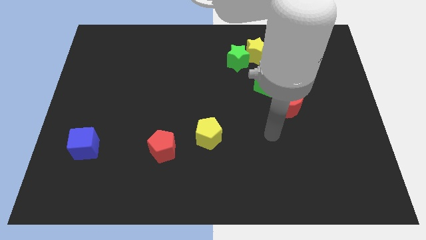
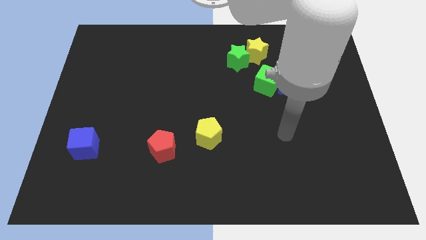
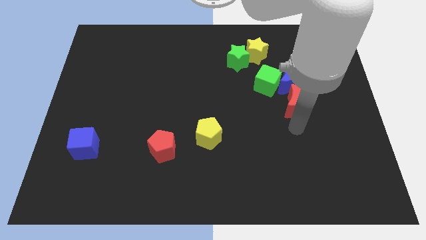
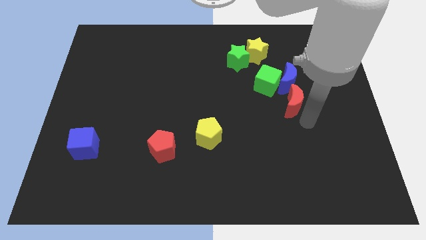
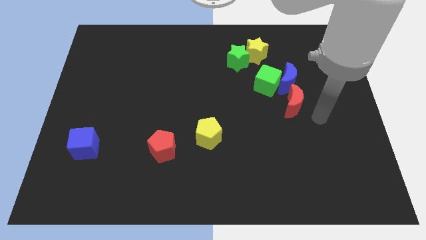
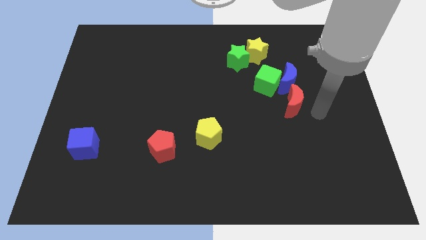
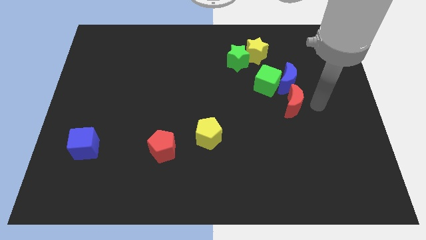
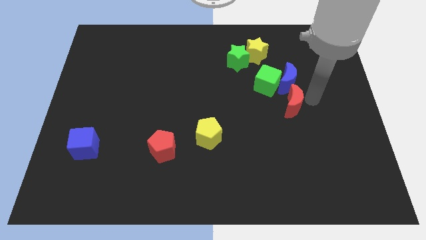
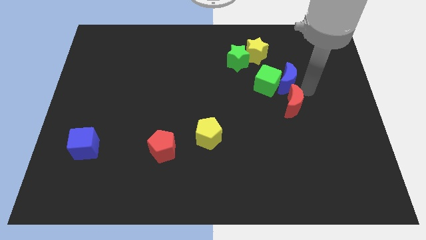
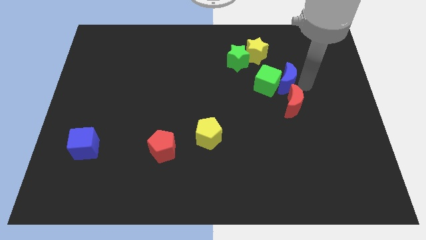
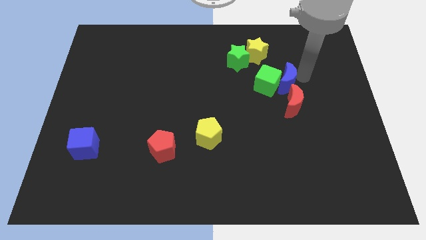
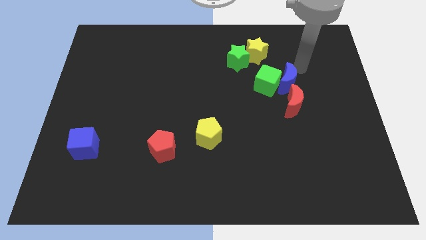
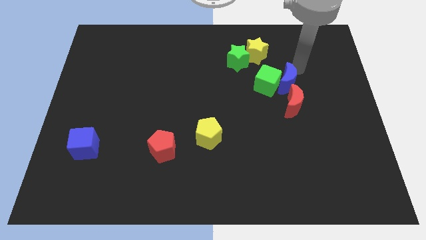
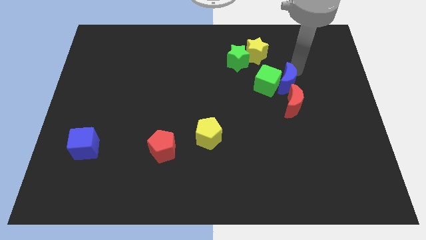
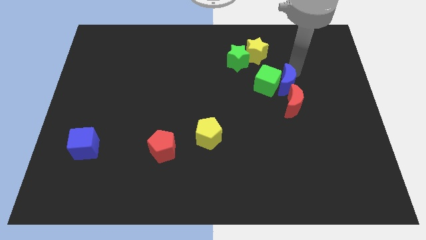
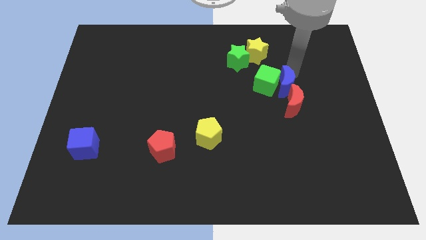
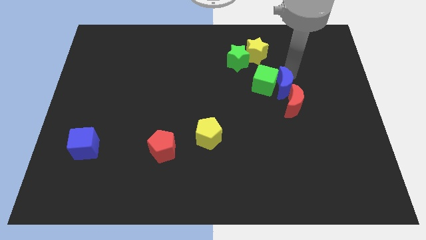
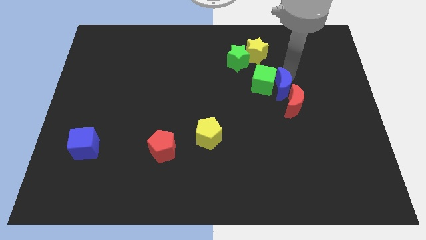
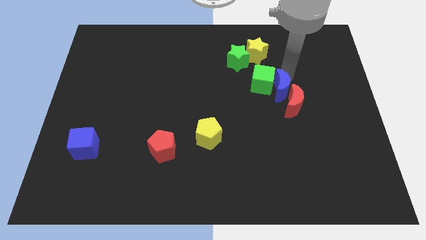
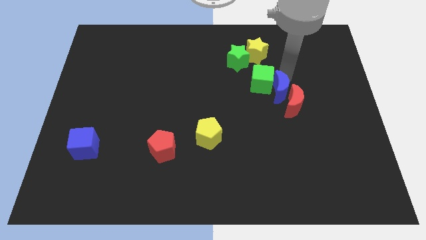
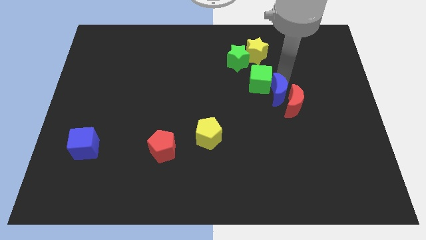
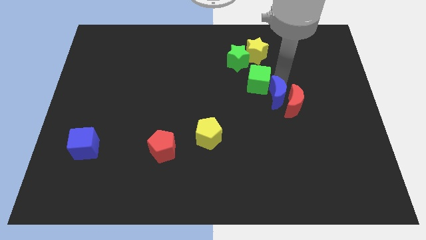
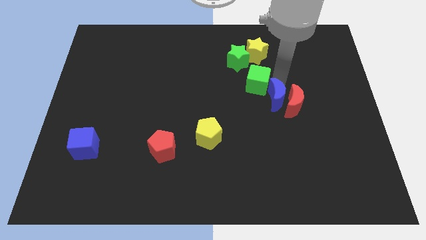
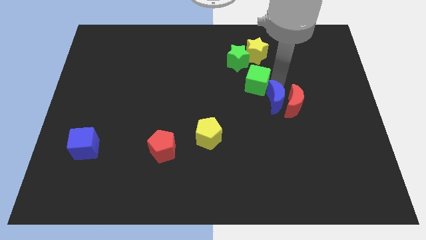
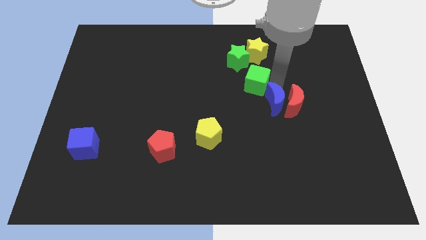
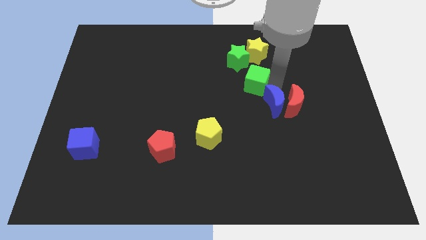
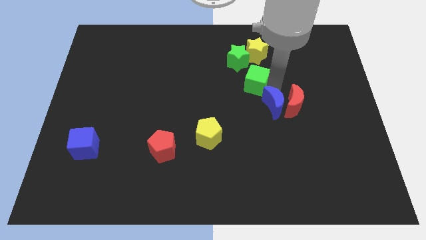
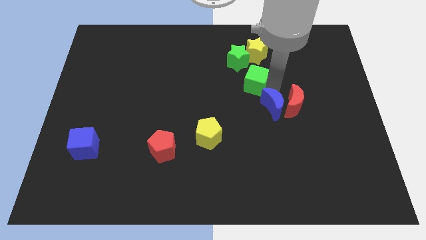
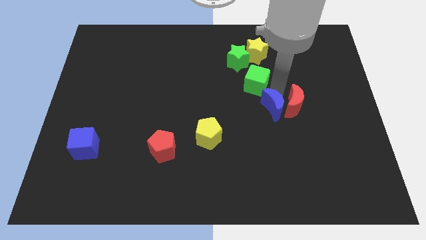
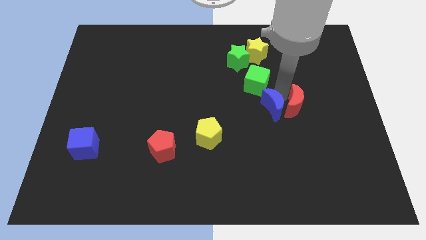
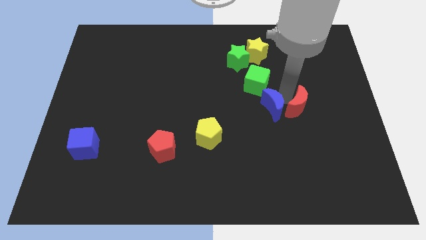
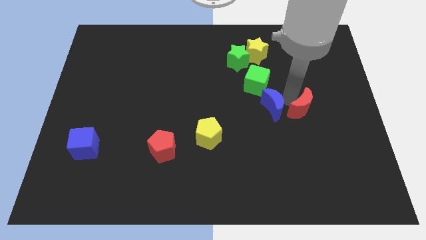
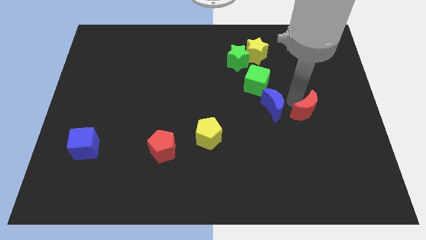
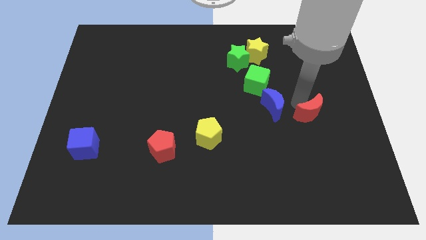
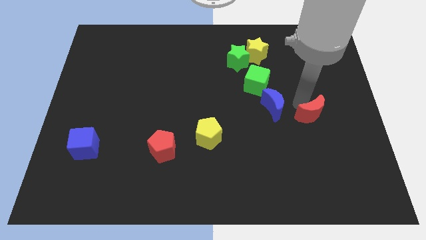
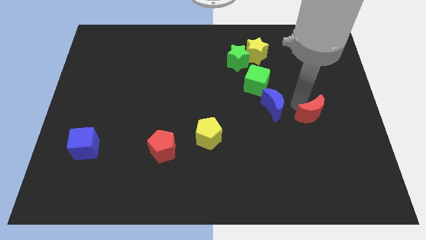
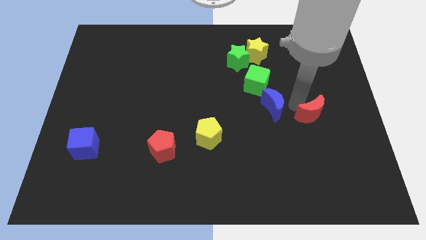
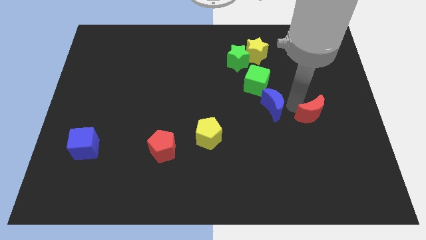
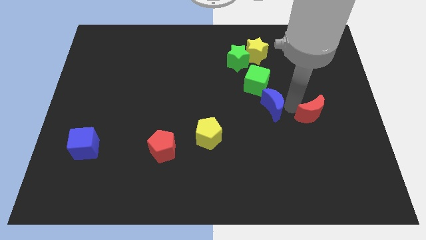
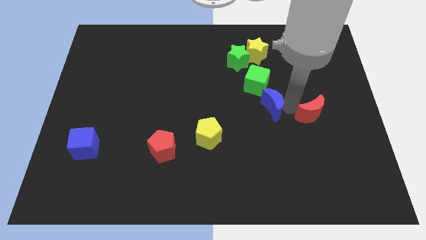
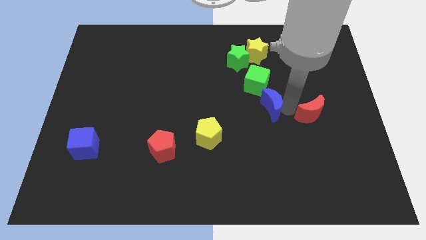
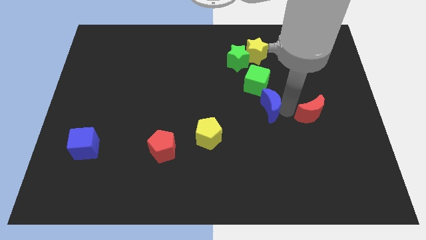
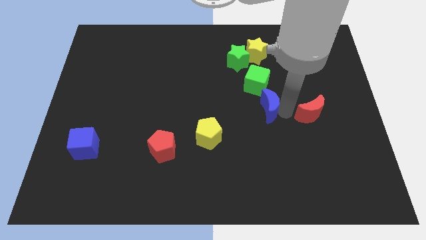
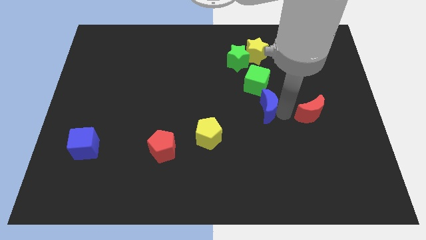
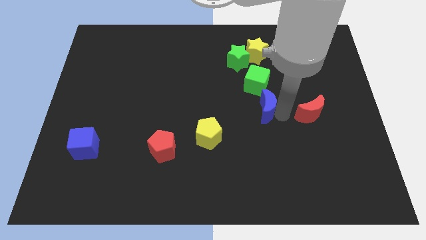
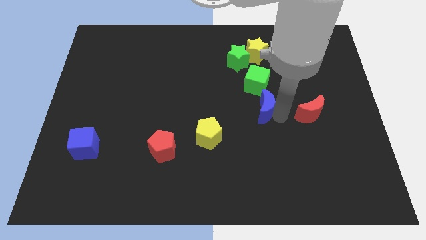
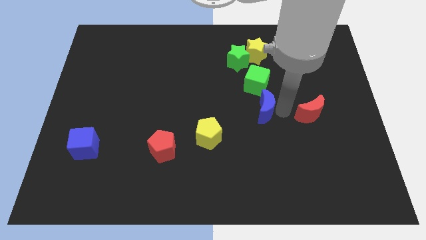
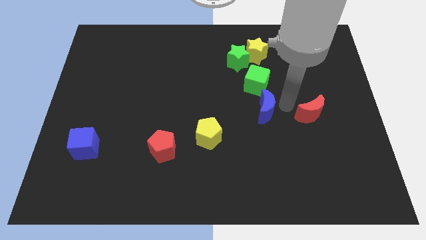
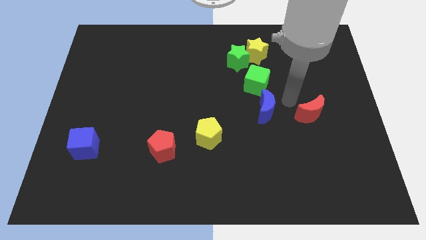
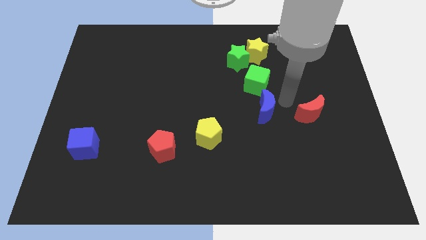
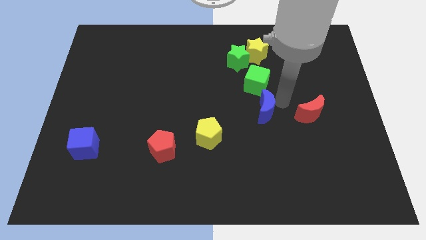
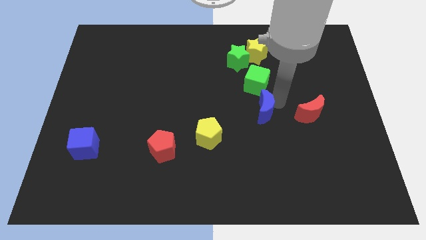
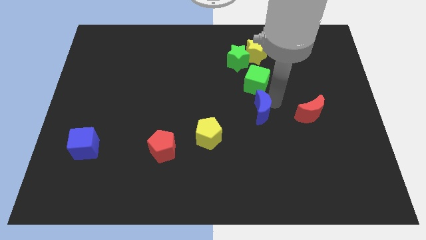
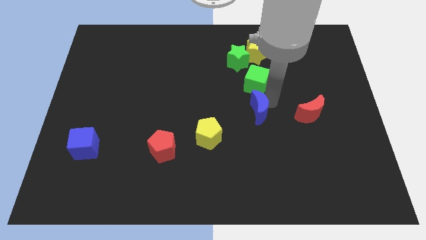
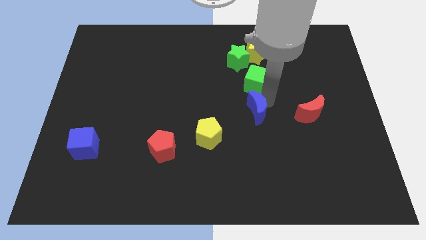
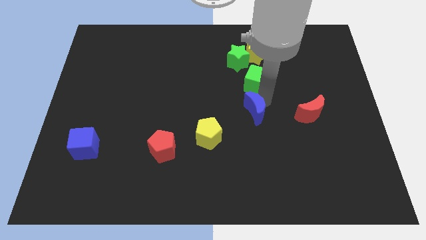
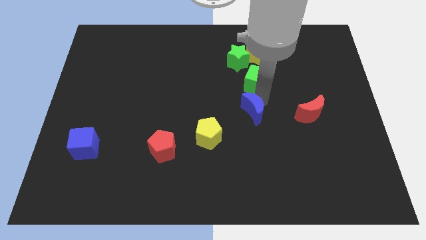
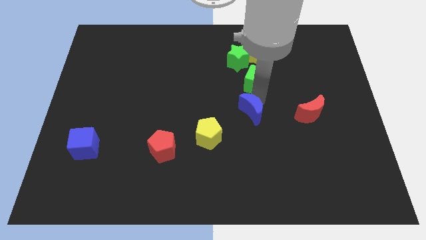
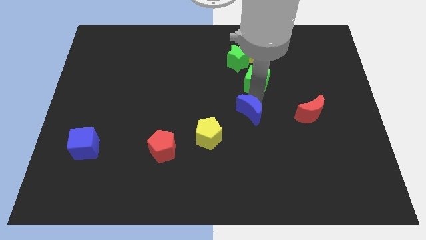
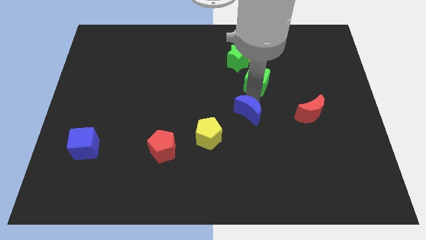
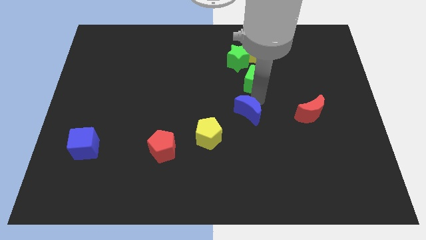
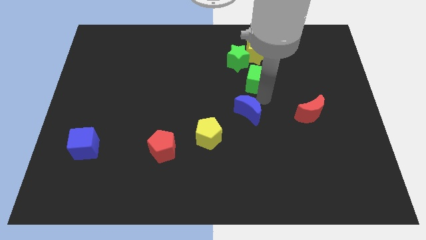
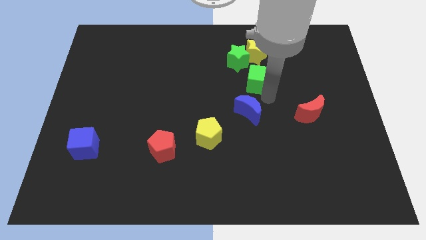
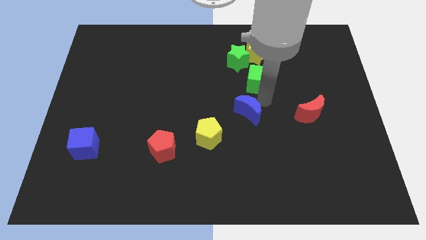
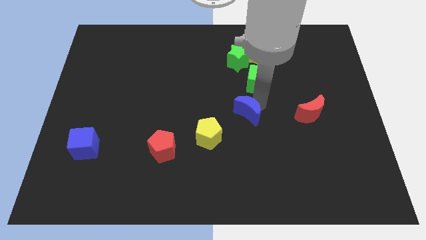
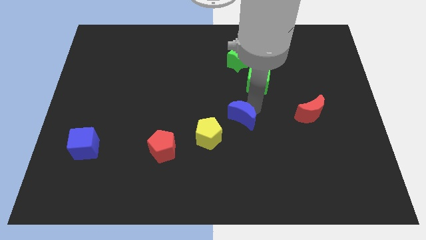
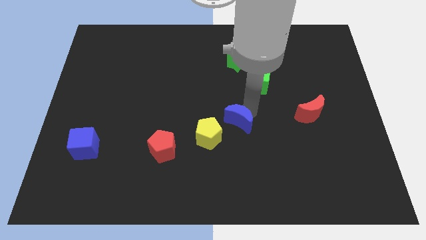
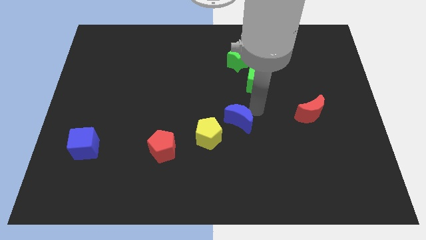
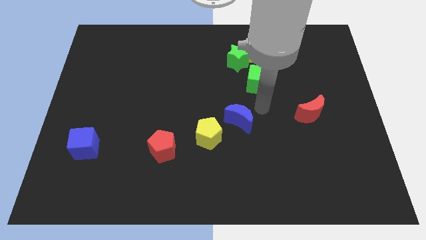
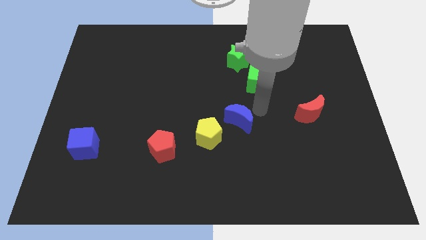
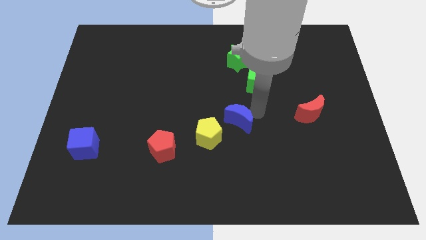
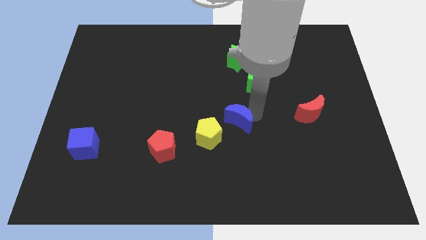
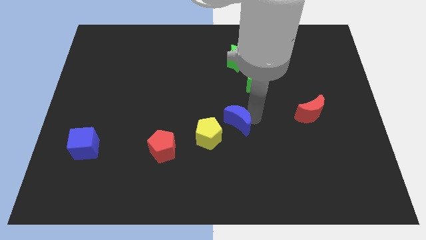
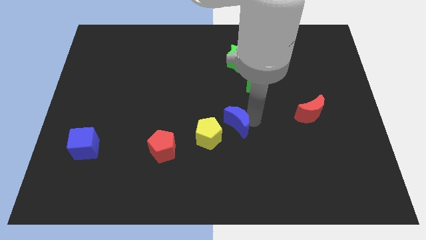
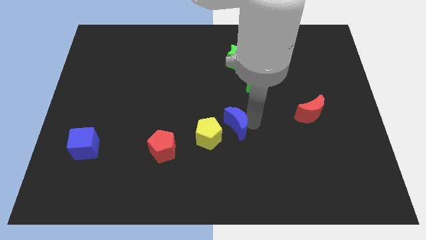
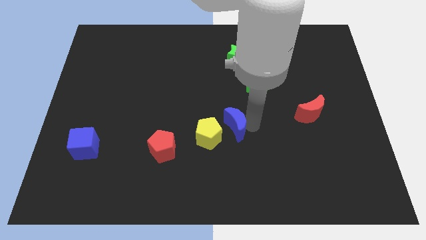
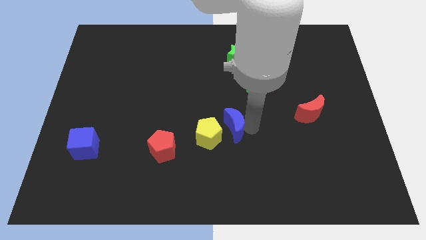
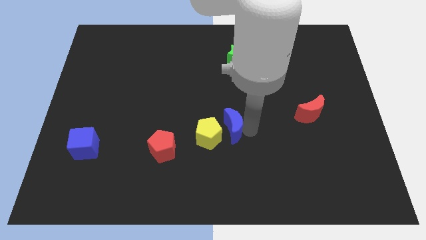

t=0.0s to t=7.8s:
slide the blue moon to the yellow pentagon
